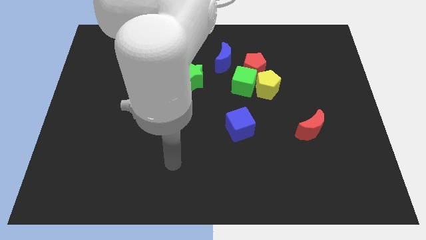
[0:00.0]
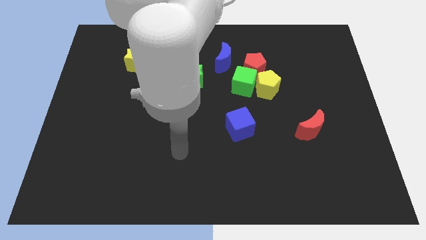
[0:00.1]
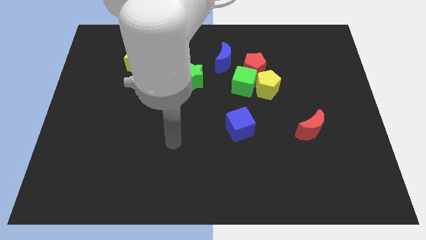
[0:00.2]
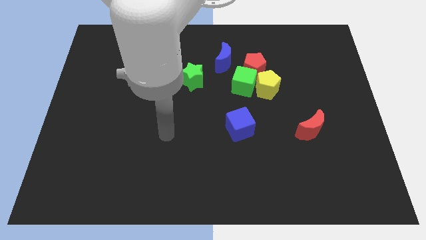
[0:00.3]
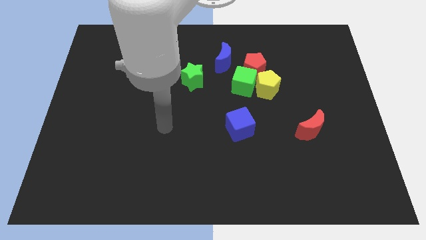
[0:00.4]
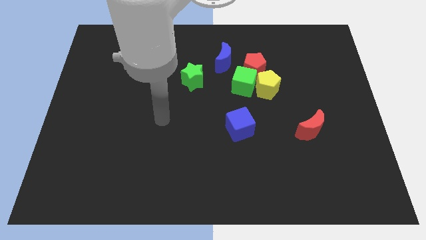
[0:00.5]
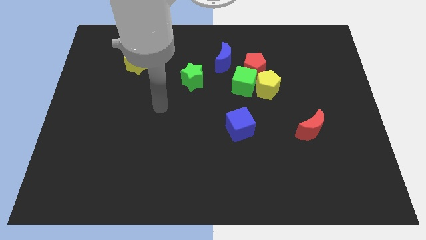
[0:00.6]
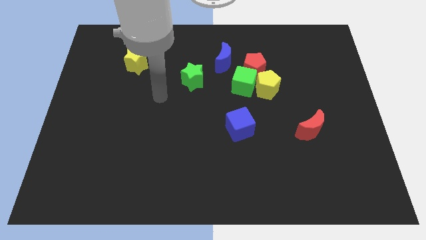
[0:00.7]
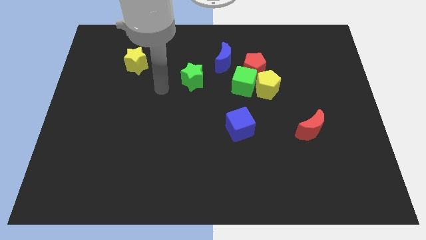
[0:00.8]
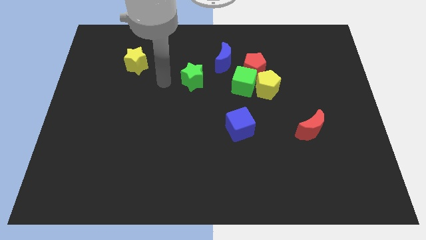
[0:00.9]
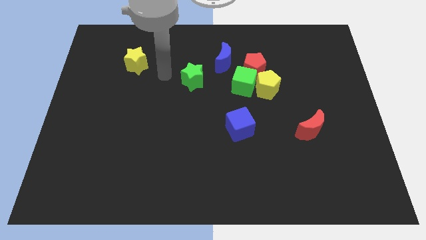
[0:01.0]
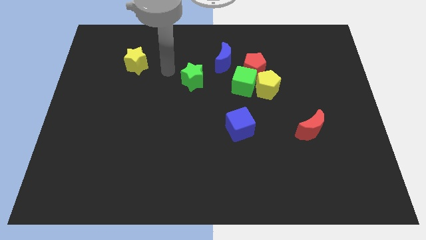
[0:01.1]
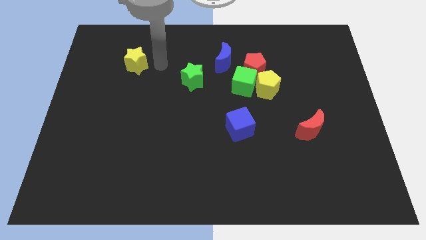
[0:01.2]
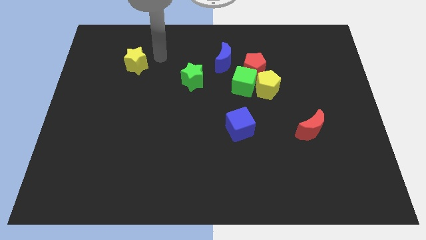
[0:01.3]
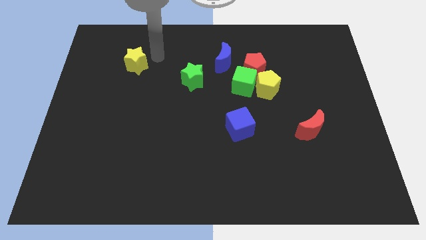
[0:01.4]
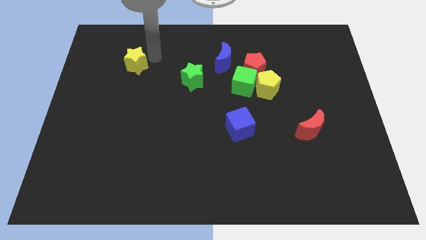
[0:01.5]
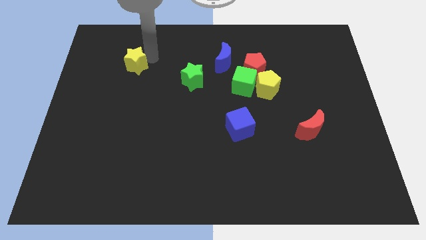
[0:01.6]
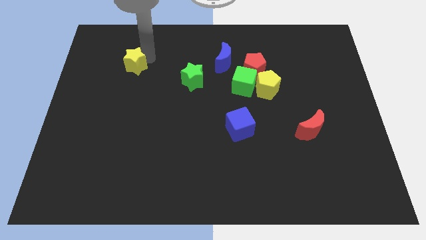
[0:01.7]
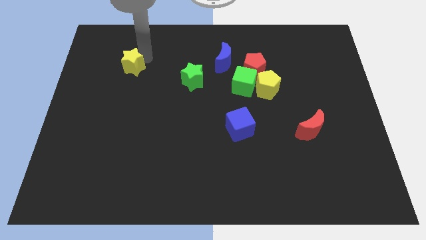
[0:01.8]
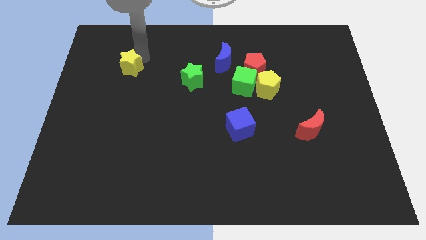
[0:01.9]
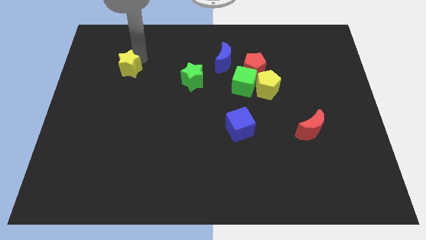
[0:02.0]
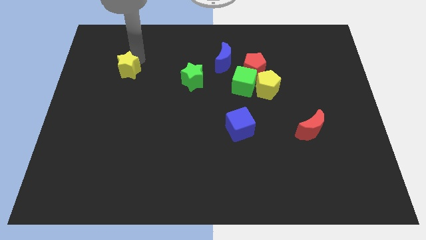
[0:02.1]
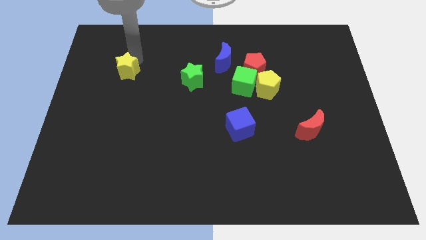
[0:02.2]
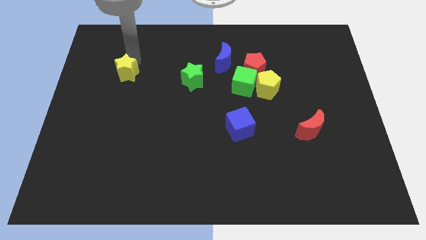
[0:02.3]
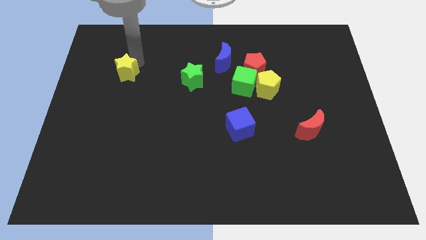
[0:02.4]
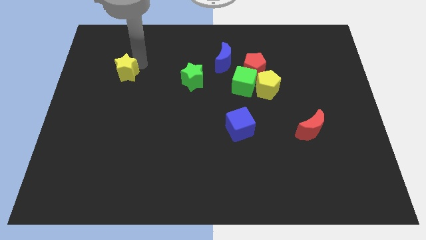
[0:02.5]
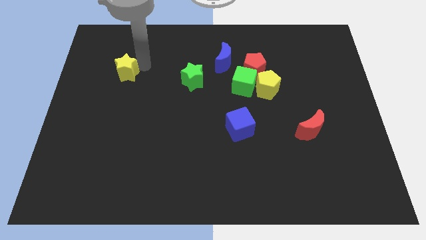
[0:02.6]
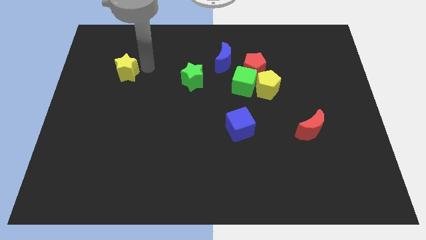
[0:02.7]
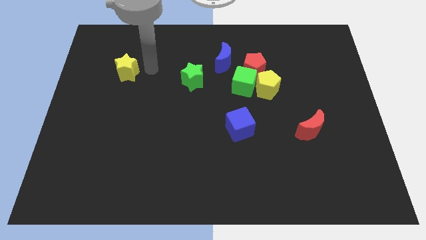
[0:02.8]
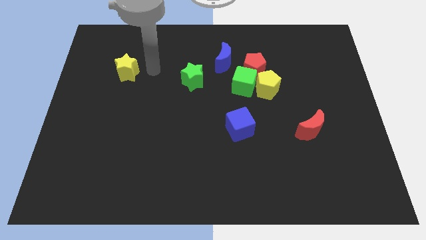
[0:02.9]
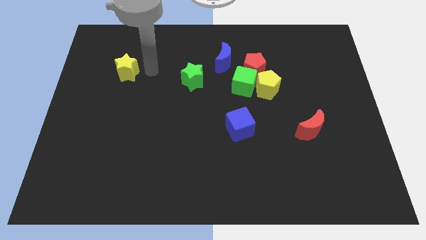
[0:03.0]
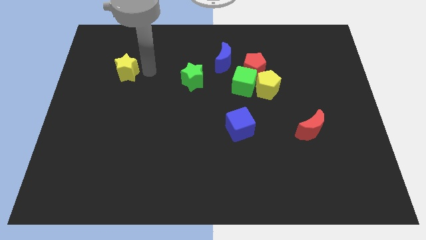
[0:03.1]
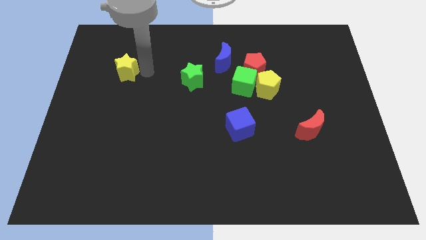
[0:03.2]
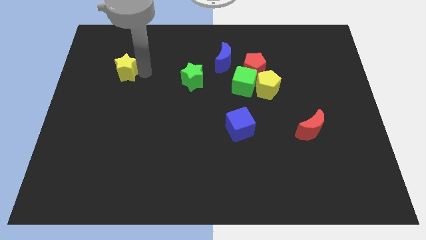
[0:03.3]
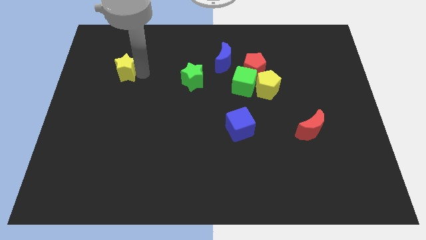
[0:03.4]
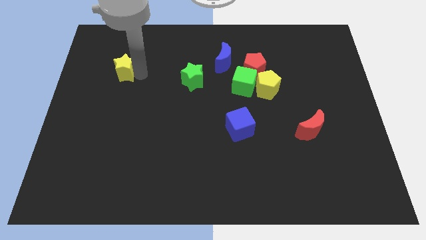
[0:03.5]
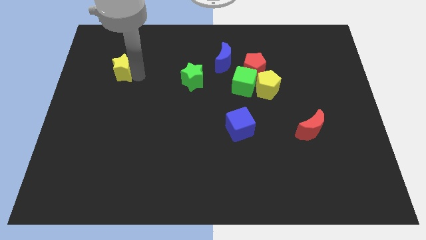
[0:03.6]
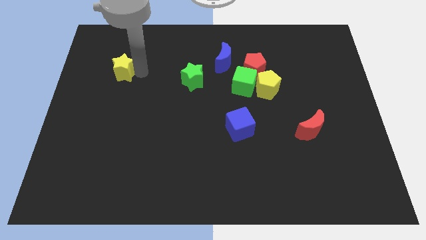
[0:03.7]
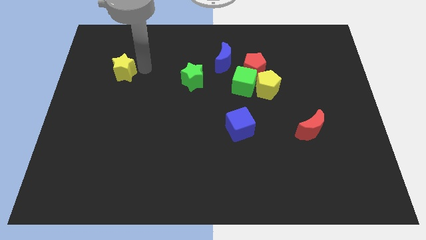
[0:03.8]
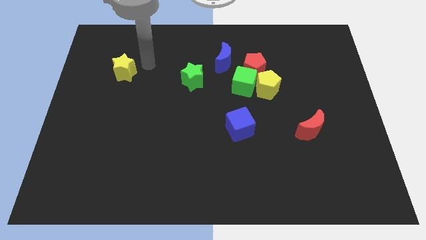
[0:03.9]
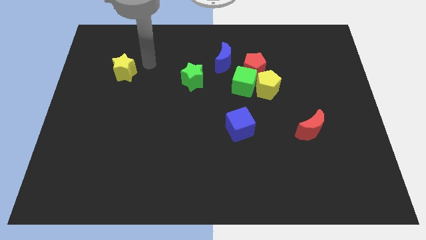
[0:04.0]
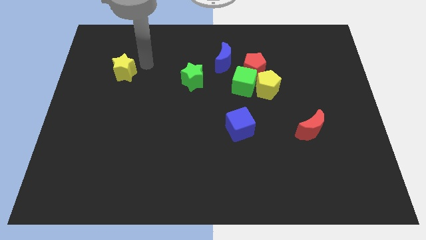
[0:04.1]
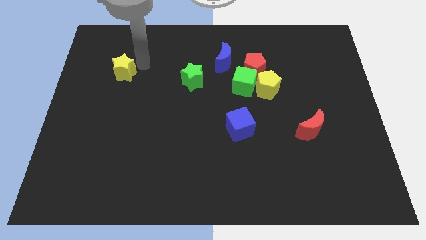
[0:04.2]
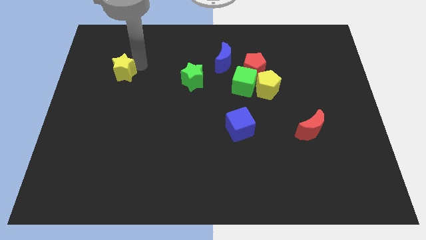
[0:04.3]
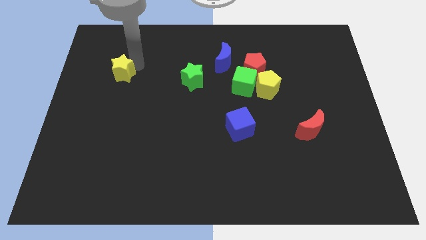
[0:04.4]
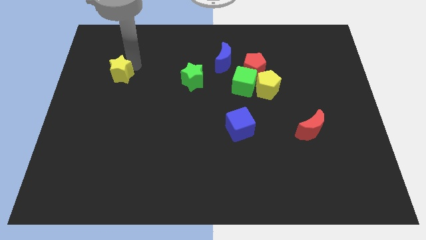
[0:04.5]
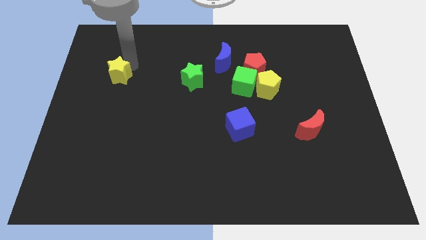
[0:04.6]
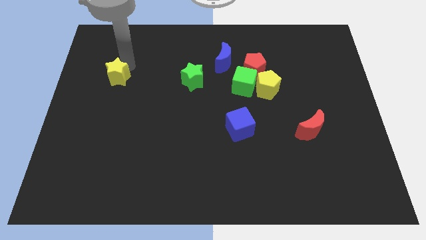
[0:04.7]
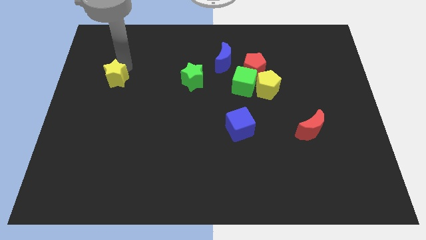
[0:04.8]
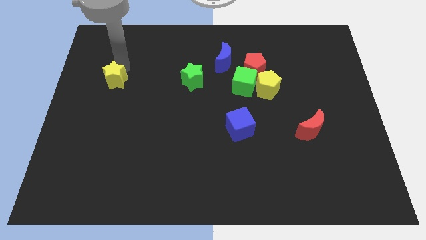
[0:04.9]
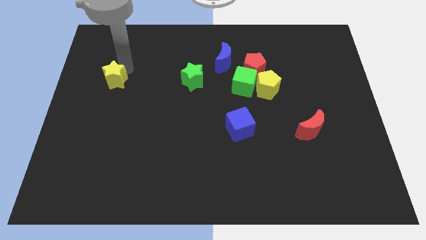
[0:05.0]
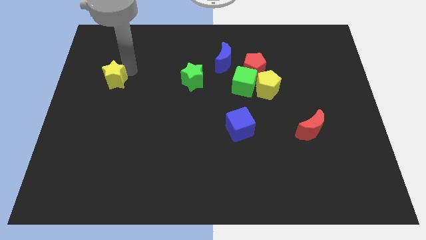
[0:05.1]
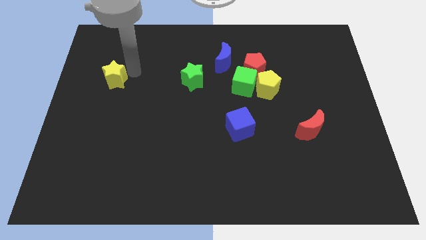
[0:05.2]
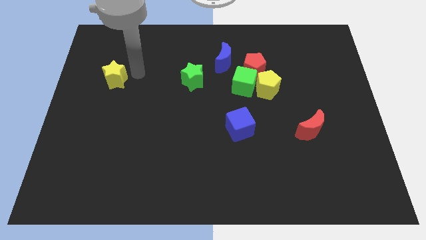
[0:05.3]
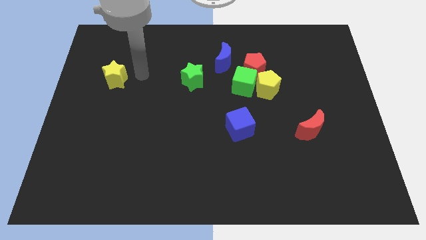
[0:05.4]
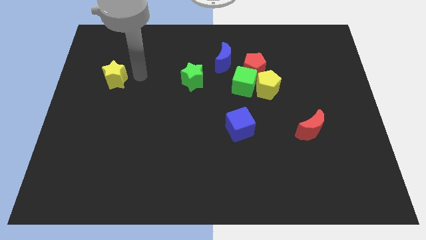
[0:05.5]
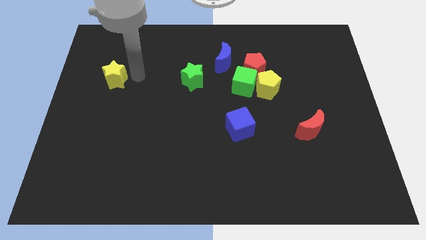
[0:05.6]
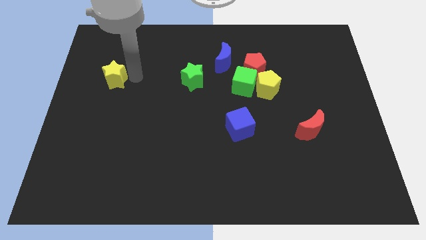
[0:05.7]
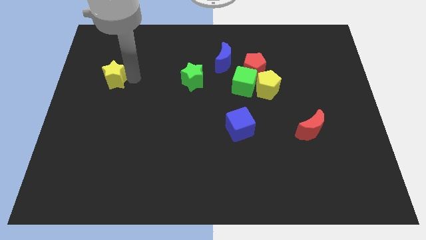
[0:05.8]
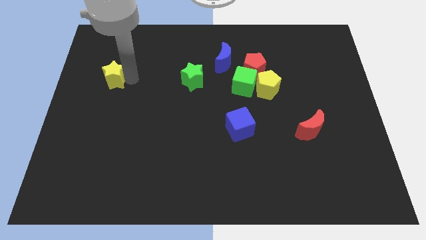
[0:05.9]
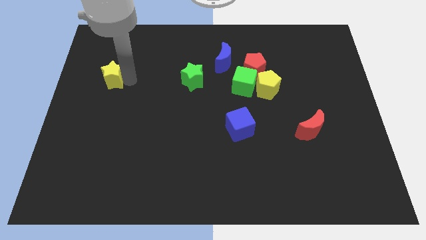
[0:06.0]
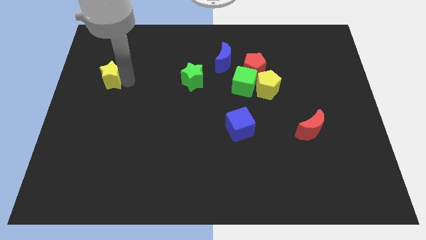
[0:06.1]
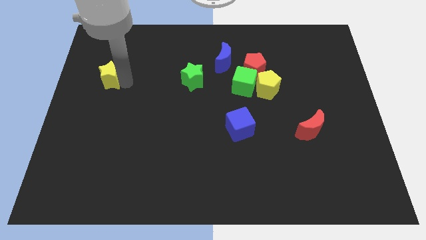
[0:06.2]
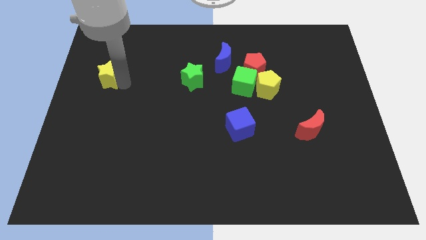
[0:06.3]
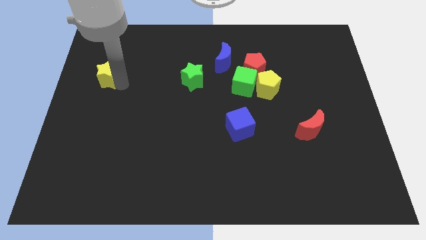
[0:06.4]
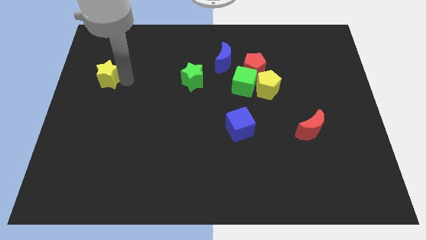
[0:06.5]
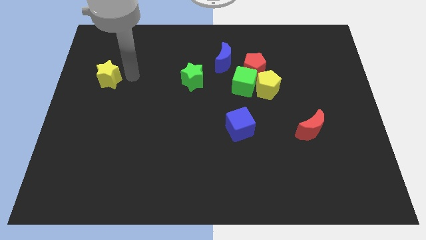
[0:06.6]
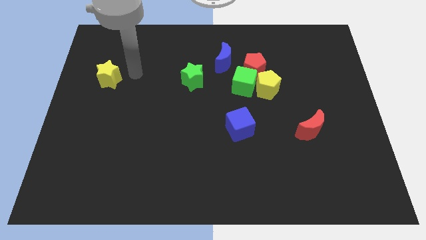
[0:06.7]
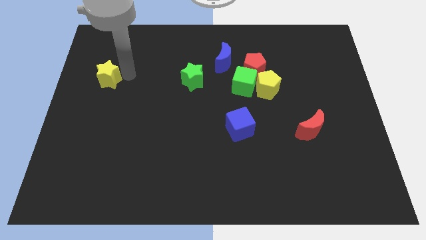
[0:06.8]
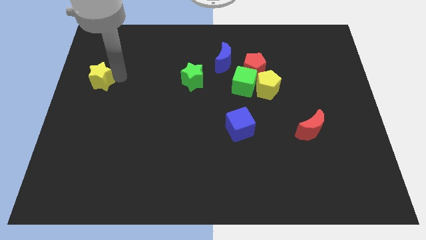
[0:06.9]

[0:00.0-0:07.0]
put the yellow star to the left side

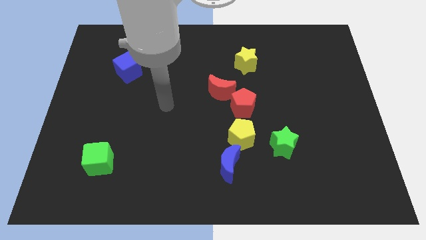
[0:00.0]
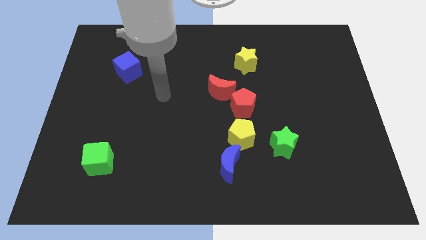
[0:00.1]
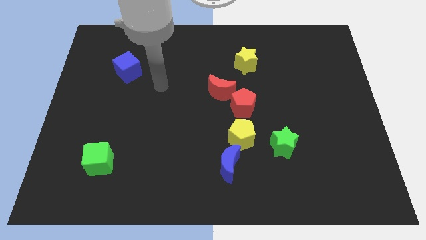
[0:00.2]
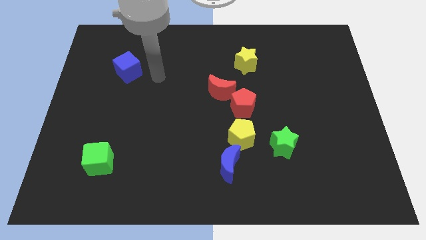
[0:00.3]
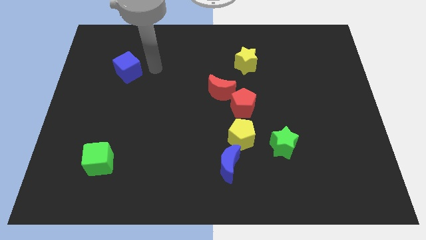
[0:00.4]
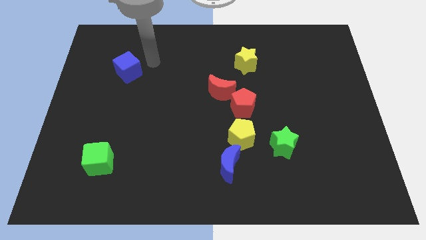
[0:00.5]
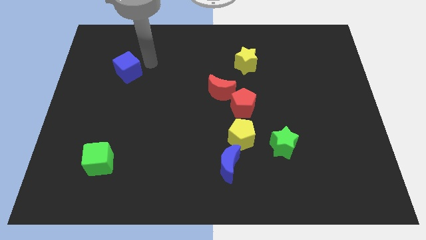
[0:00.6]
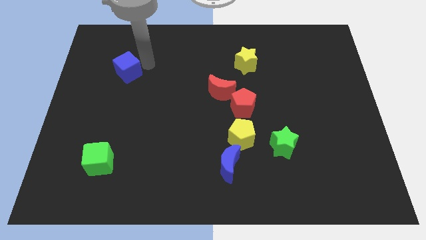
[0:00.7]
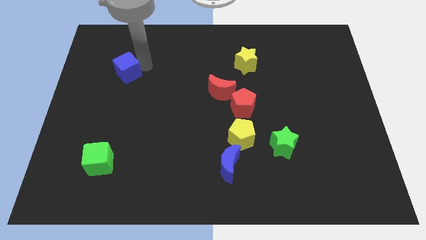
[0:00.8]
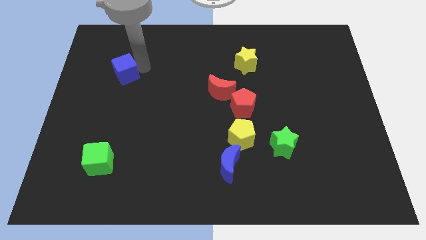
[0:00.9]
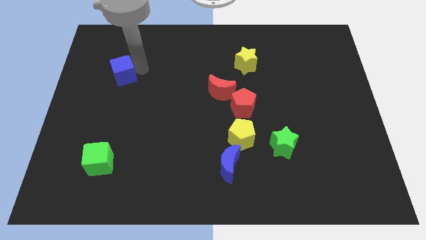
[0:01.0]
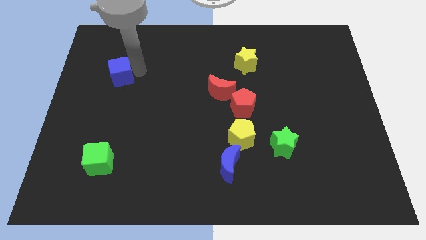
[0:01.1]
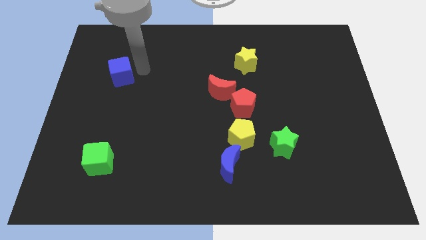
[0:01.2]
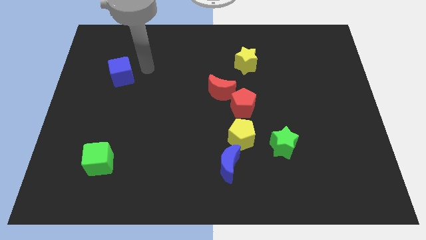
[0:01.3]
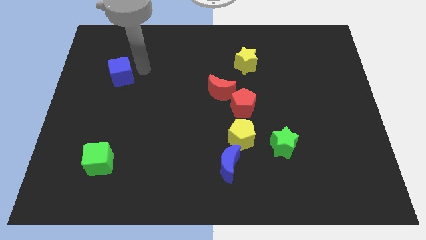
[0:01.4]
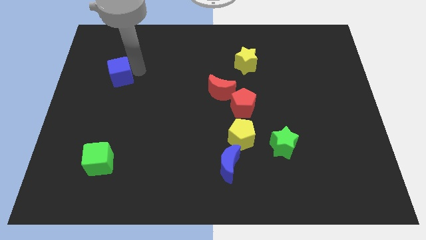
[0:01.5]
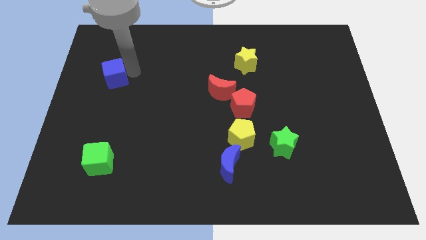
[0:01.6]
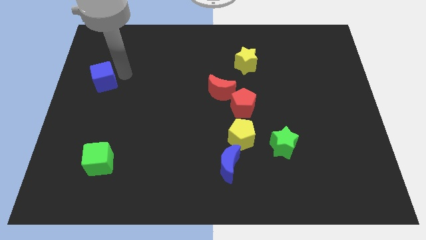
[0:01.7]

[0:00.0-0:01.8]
push the blue cube to the left side of the board
